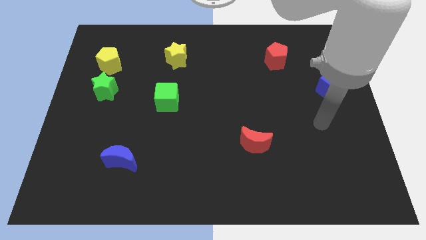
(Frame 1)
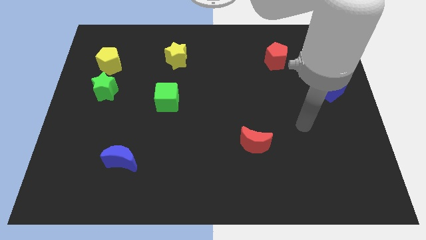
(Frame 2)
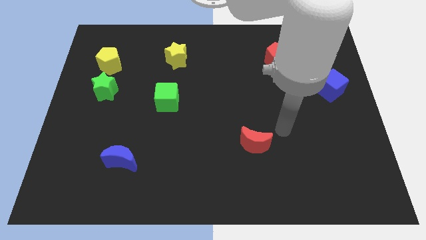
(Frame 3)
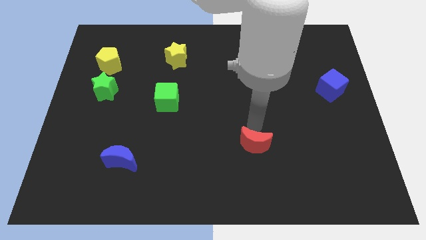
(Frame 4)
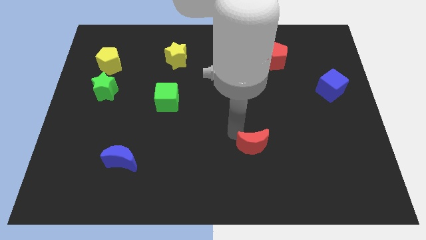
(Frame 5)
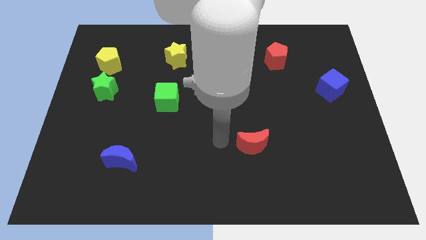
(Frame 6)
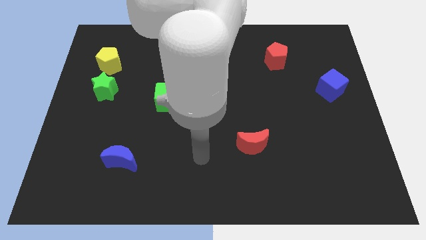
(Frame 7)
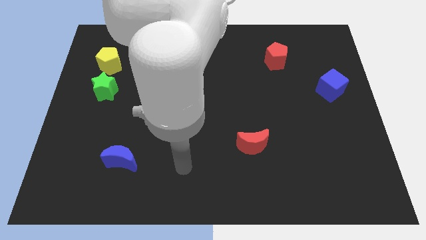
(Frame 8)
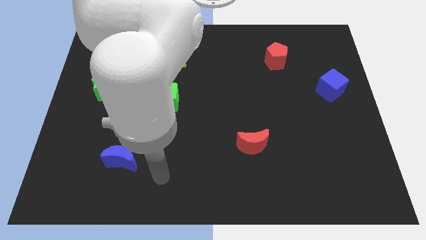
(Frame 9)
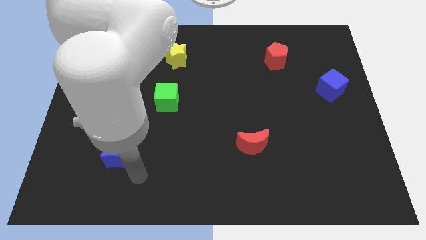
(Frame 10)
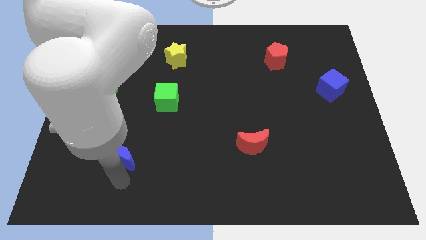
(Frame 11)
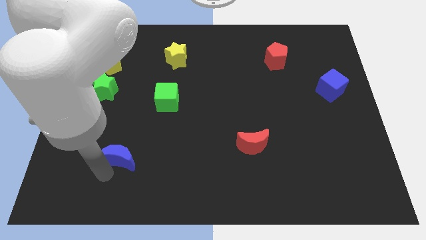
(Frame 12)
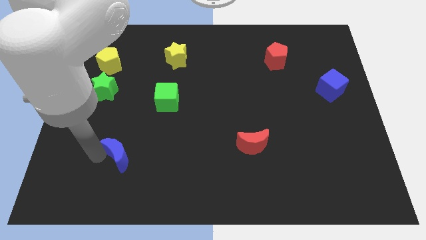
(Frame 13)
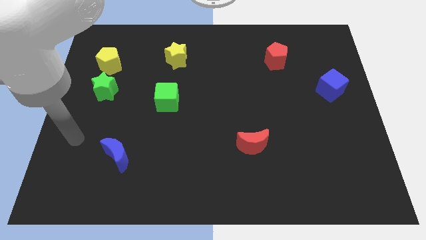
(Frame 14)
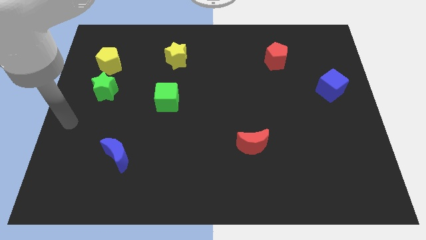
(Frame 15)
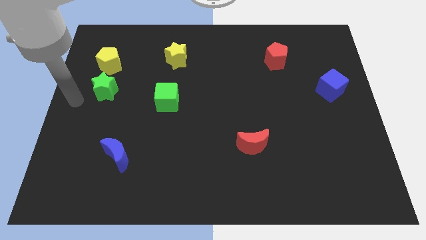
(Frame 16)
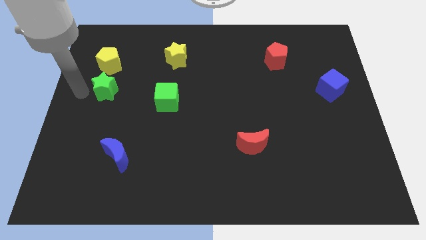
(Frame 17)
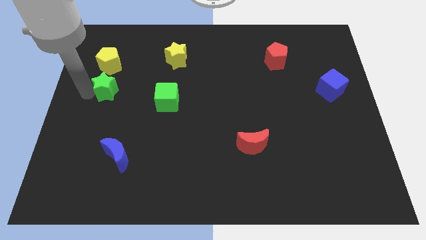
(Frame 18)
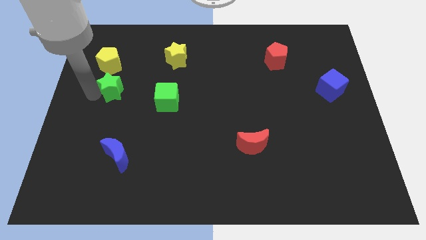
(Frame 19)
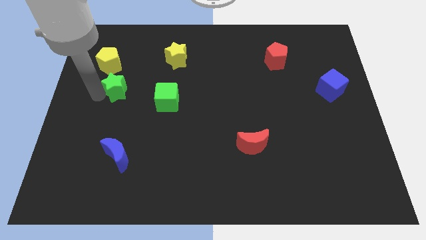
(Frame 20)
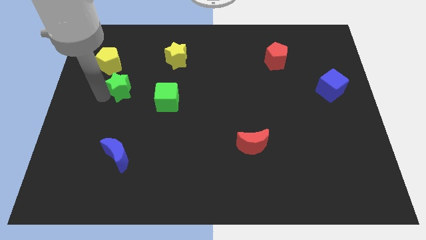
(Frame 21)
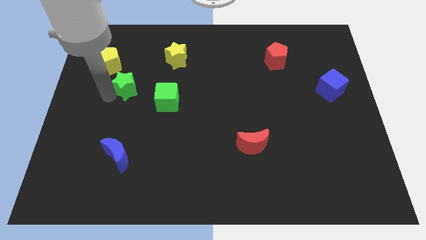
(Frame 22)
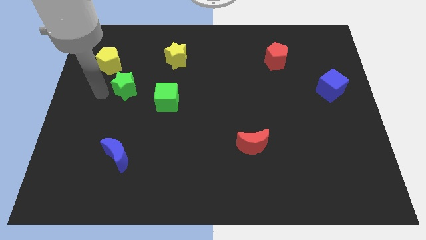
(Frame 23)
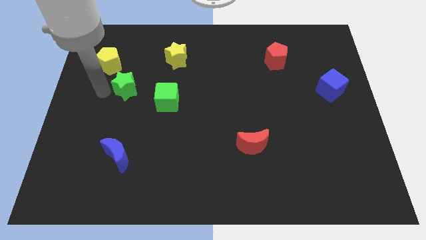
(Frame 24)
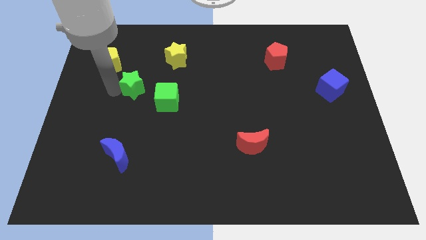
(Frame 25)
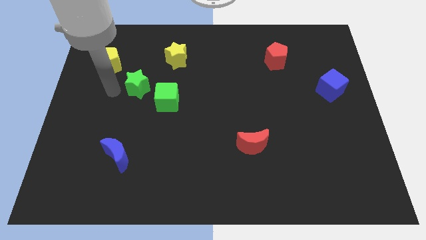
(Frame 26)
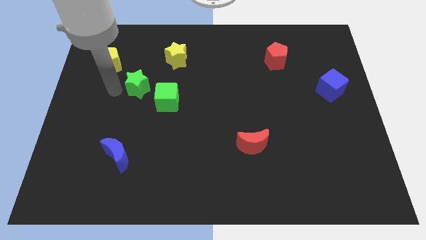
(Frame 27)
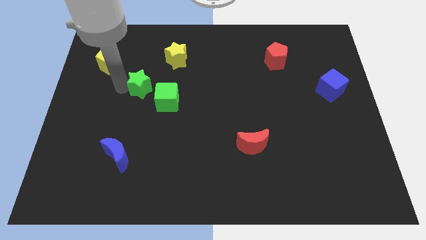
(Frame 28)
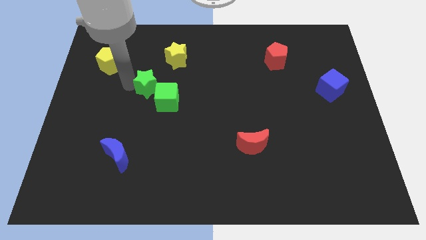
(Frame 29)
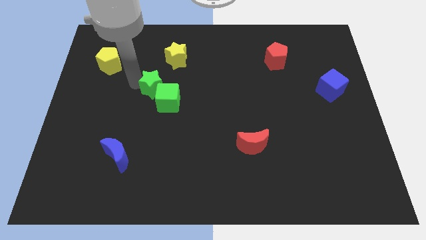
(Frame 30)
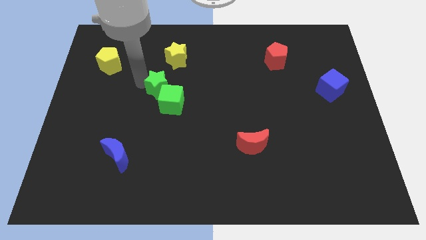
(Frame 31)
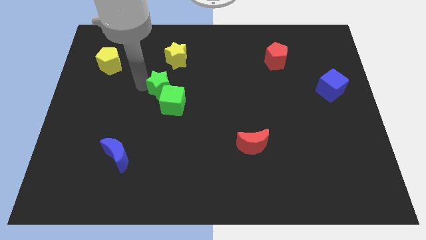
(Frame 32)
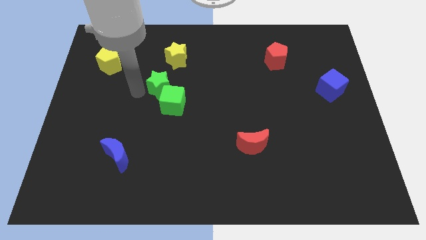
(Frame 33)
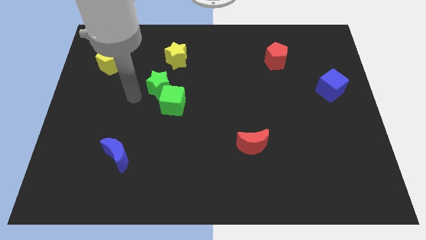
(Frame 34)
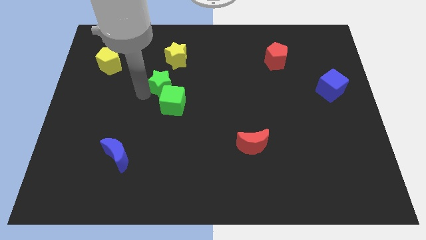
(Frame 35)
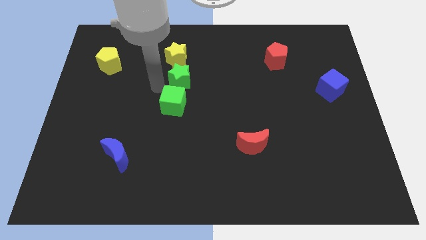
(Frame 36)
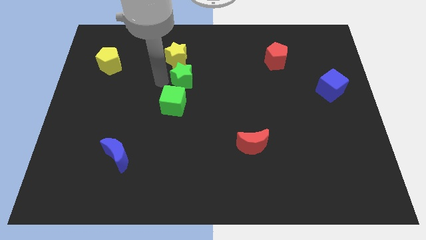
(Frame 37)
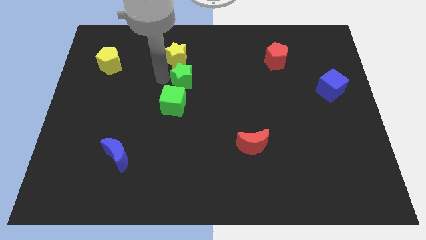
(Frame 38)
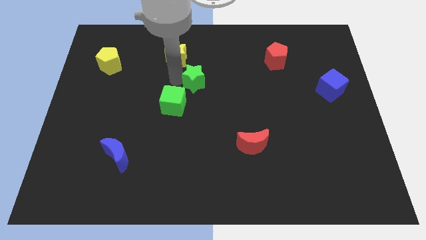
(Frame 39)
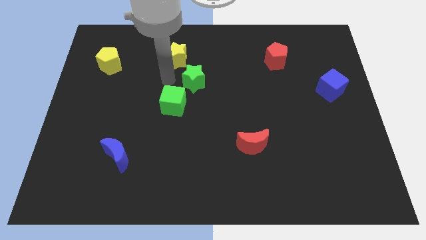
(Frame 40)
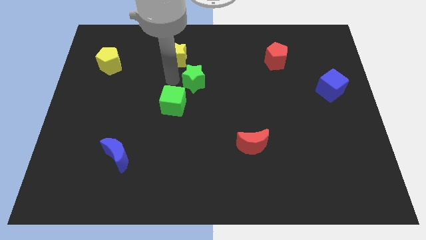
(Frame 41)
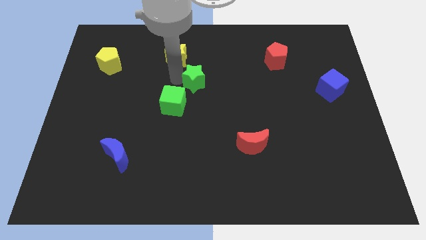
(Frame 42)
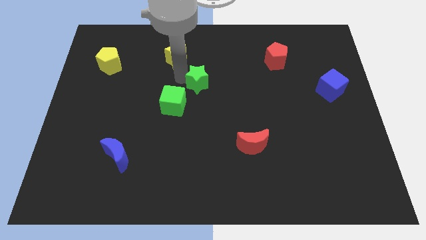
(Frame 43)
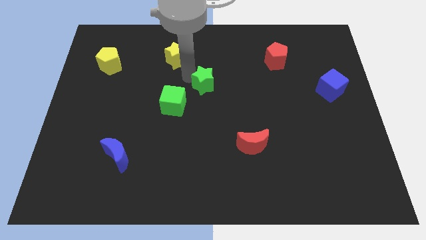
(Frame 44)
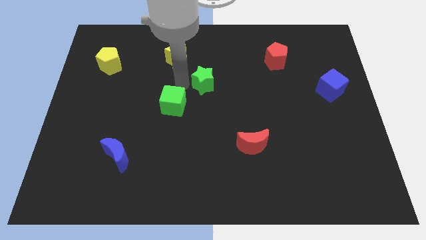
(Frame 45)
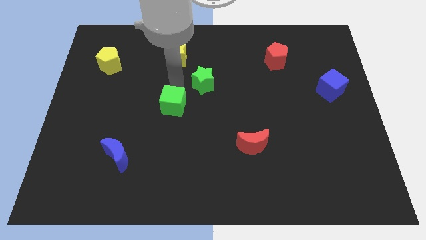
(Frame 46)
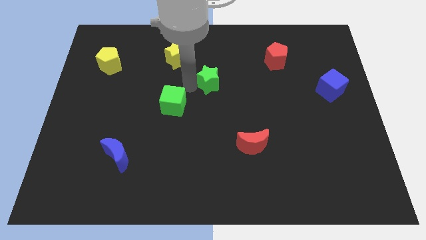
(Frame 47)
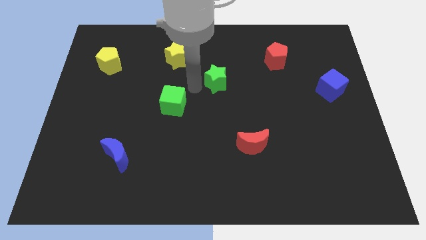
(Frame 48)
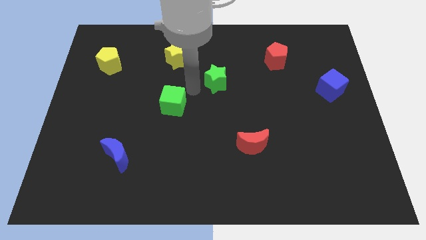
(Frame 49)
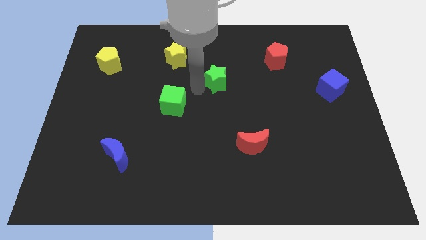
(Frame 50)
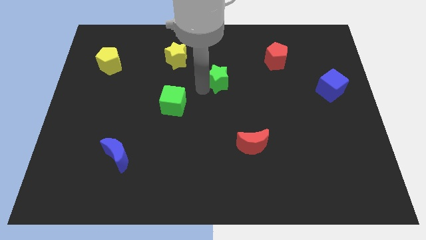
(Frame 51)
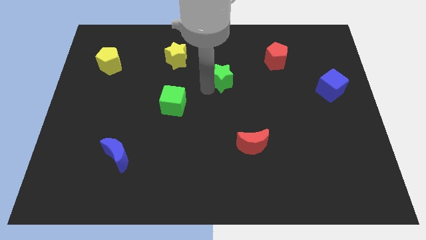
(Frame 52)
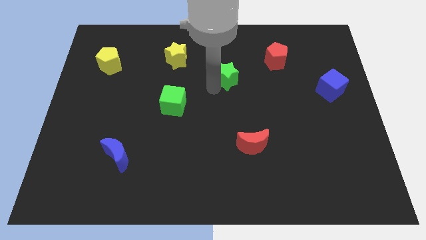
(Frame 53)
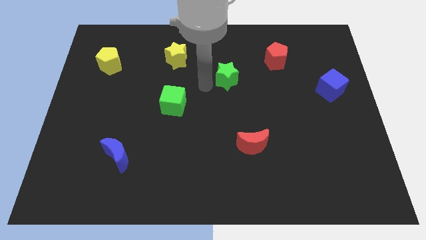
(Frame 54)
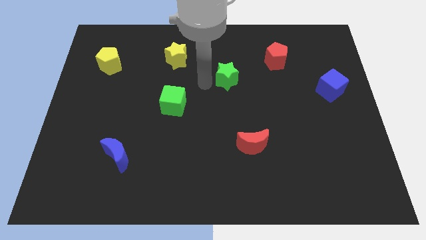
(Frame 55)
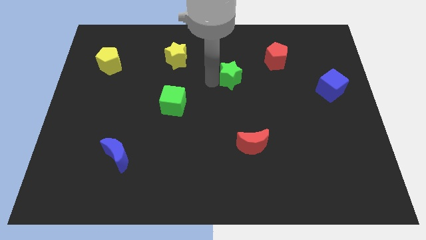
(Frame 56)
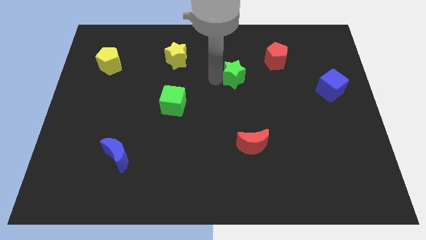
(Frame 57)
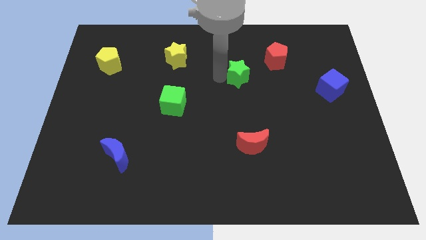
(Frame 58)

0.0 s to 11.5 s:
put the green star to the bottom left of the red pentagon

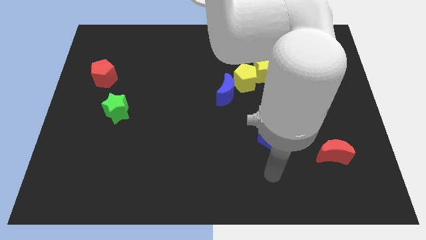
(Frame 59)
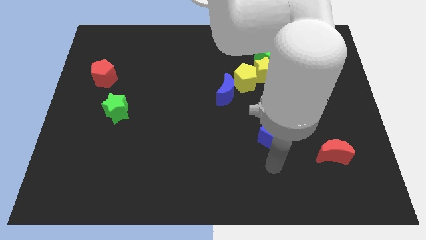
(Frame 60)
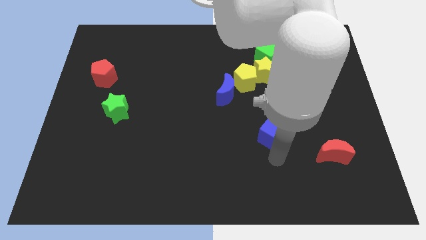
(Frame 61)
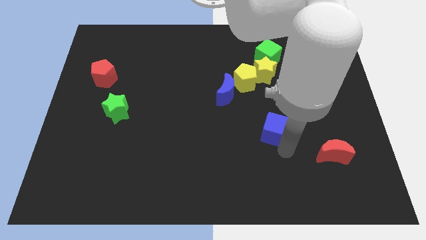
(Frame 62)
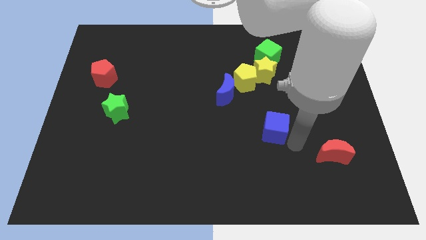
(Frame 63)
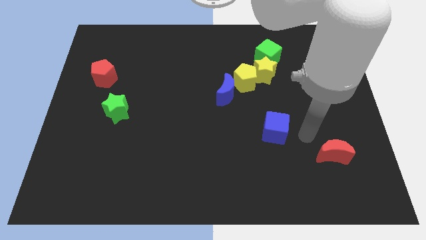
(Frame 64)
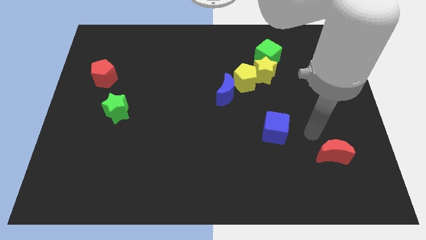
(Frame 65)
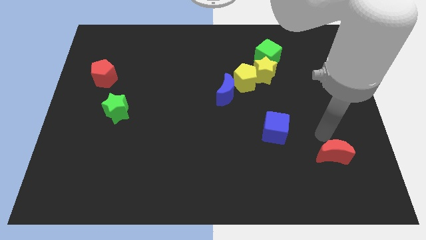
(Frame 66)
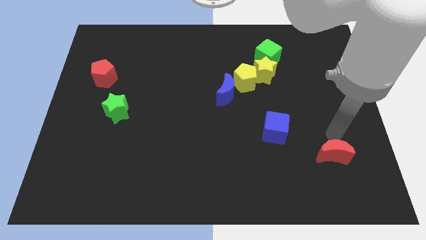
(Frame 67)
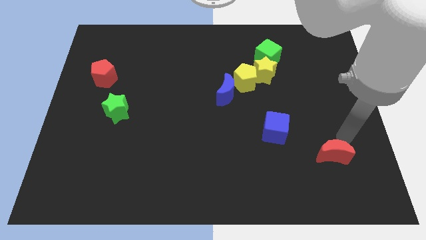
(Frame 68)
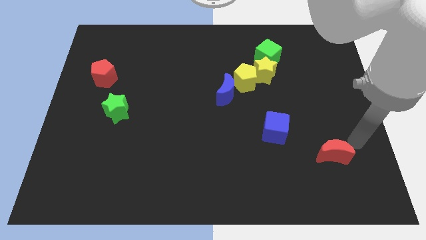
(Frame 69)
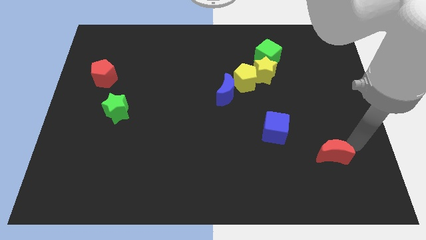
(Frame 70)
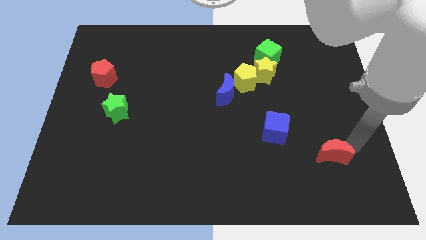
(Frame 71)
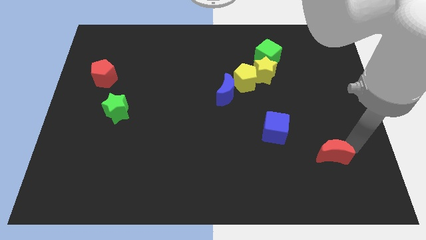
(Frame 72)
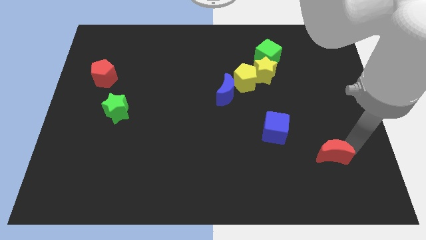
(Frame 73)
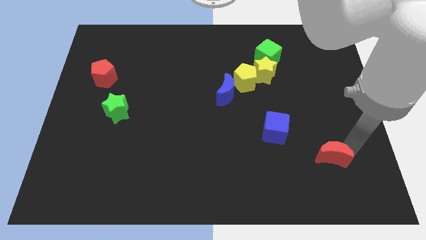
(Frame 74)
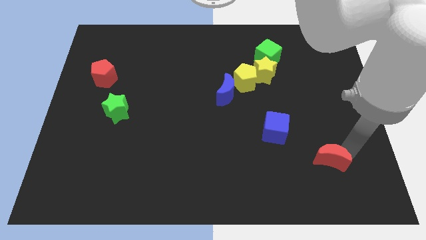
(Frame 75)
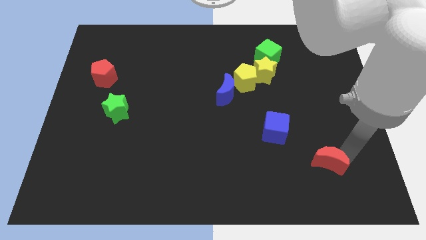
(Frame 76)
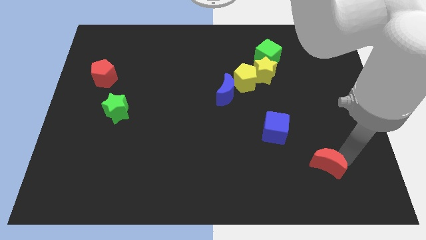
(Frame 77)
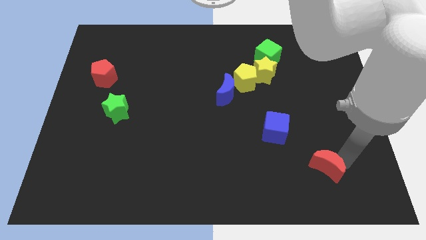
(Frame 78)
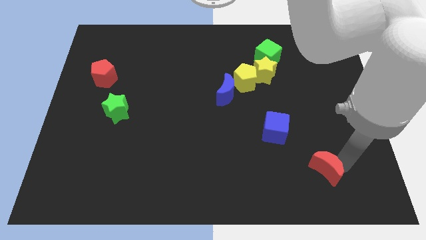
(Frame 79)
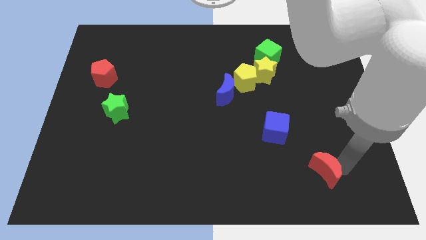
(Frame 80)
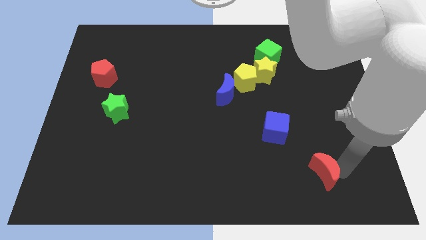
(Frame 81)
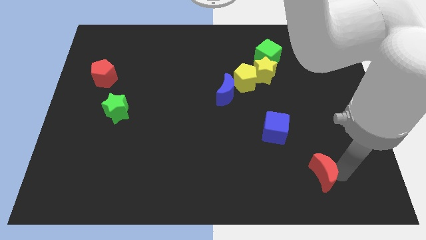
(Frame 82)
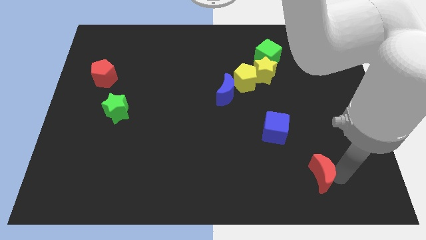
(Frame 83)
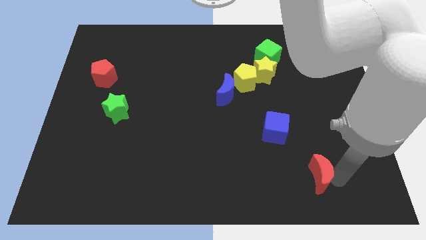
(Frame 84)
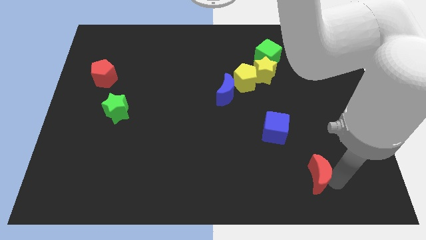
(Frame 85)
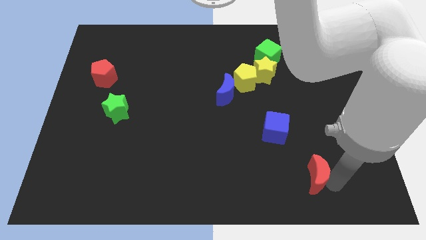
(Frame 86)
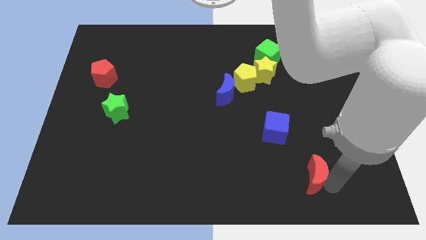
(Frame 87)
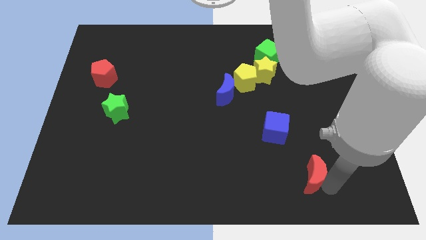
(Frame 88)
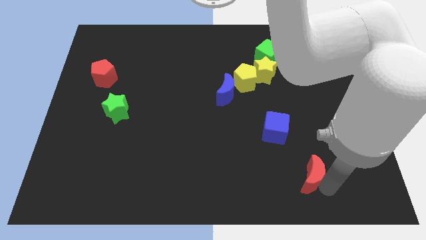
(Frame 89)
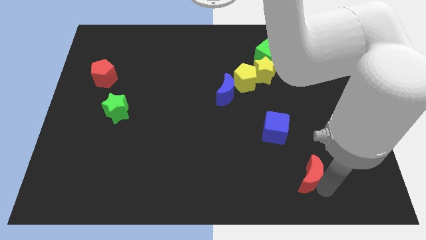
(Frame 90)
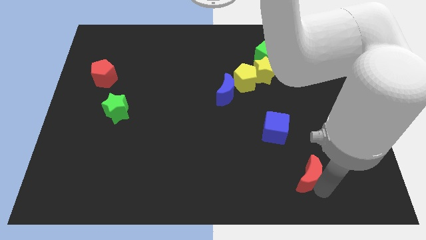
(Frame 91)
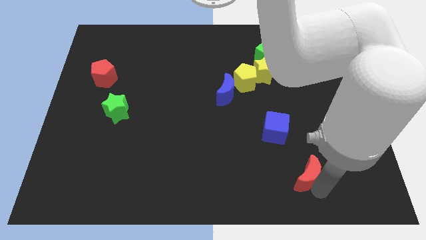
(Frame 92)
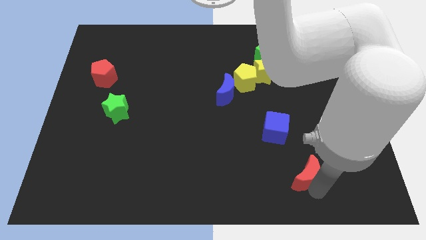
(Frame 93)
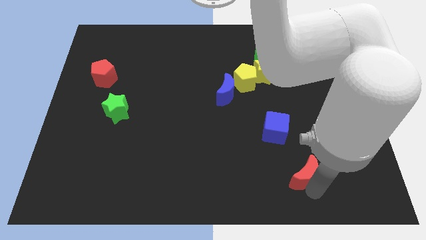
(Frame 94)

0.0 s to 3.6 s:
put the red moon to the bottom side of the blue cube
